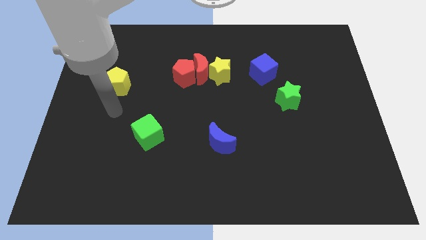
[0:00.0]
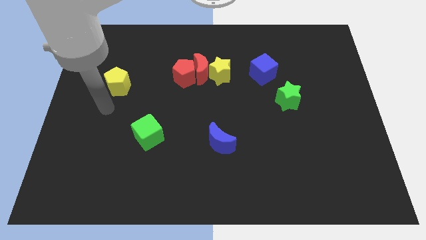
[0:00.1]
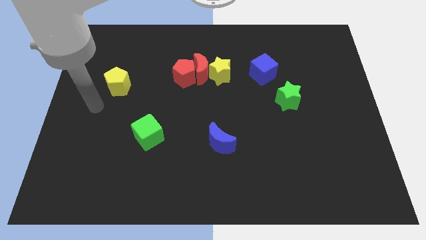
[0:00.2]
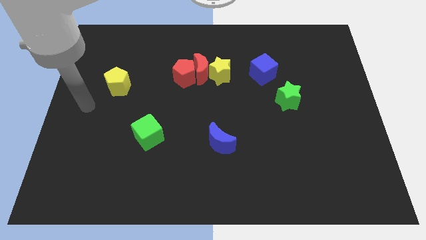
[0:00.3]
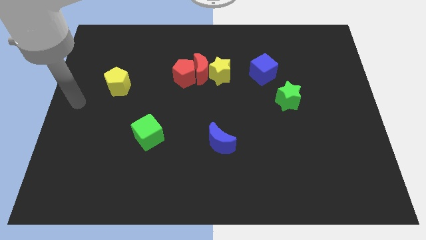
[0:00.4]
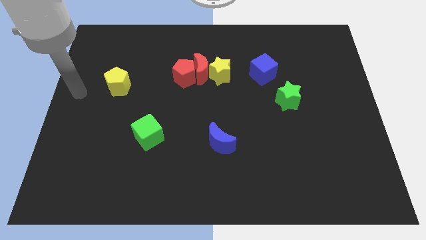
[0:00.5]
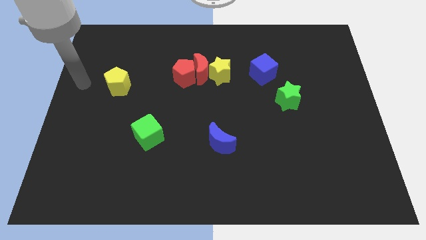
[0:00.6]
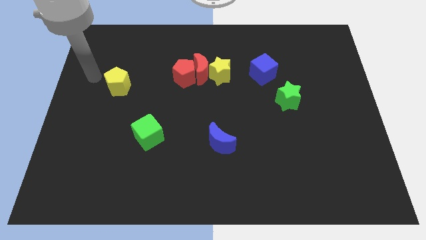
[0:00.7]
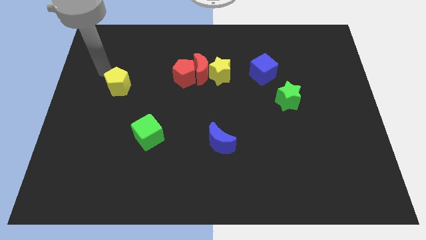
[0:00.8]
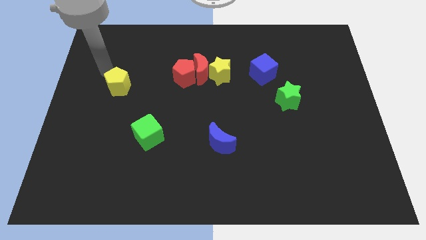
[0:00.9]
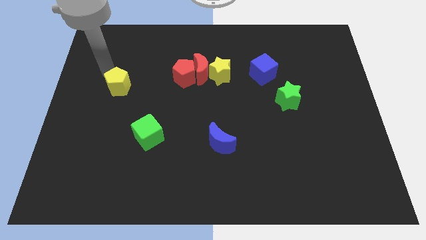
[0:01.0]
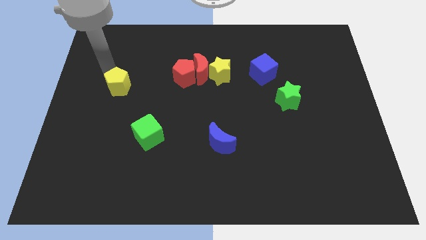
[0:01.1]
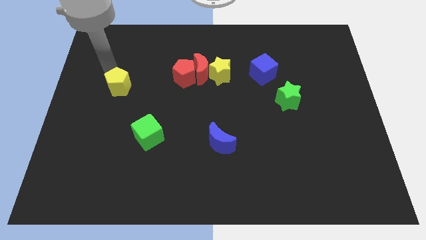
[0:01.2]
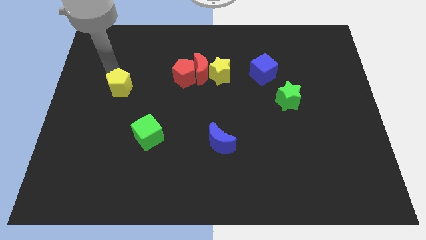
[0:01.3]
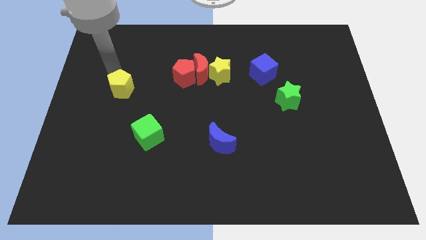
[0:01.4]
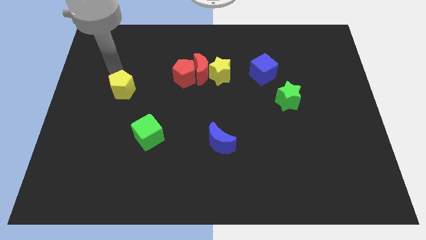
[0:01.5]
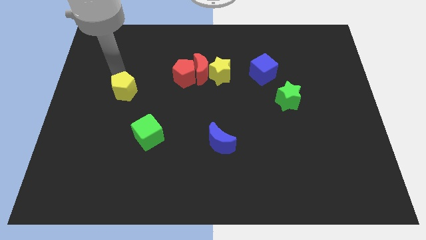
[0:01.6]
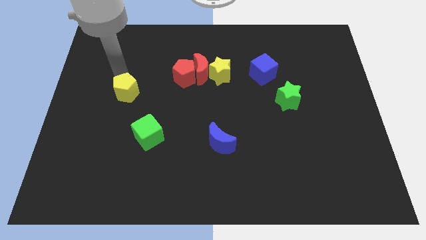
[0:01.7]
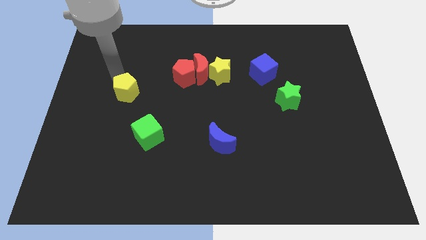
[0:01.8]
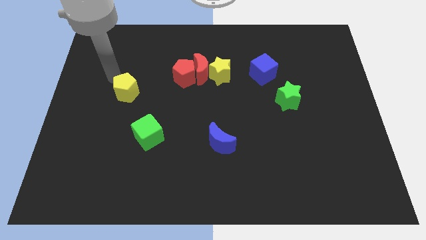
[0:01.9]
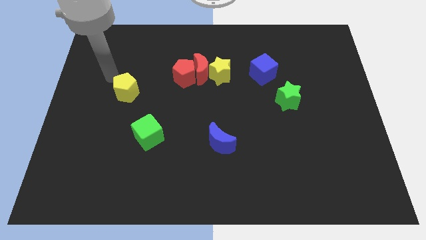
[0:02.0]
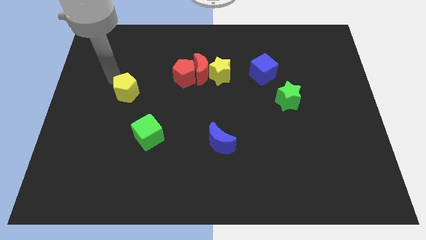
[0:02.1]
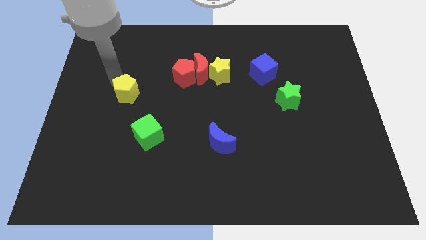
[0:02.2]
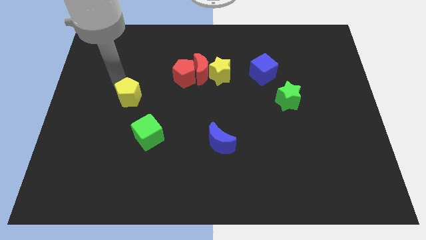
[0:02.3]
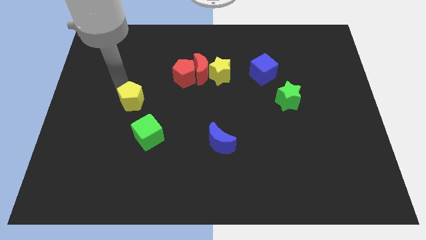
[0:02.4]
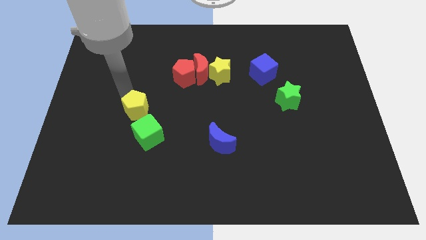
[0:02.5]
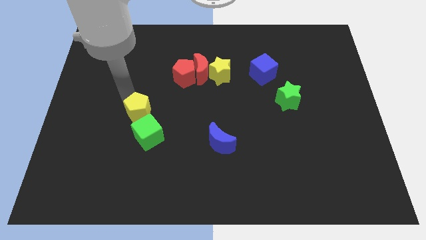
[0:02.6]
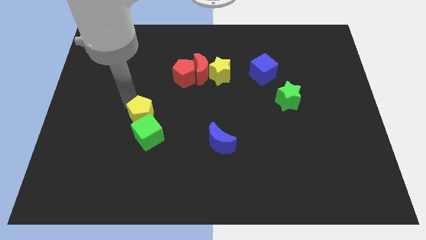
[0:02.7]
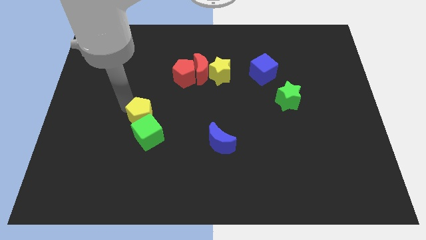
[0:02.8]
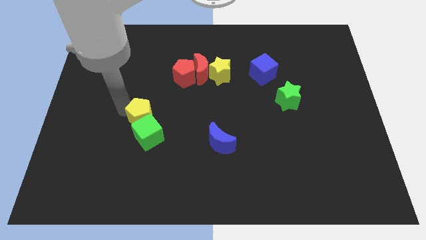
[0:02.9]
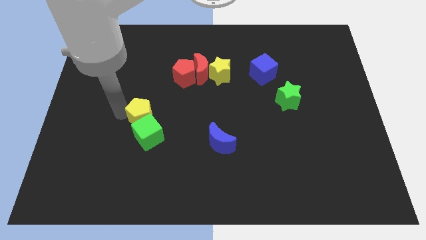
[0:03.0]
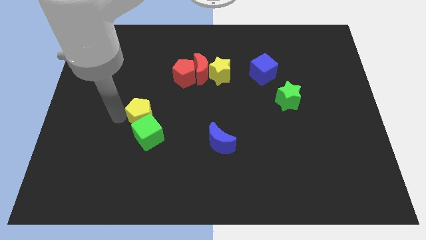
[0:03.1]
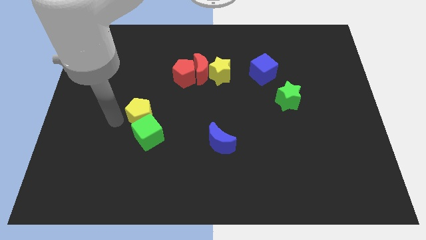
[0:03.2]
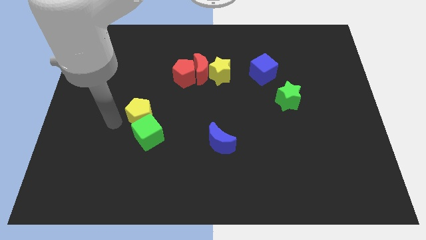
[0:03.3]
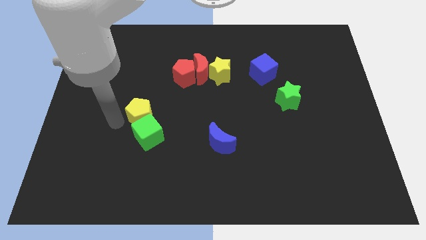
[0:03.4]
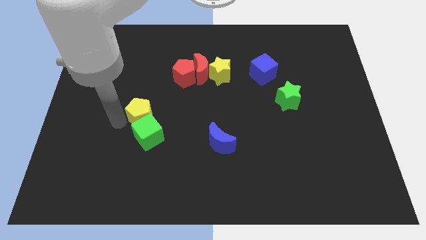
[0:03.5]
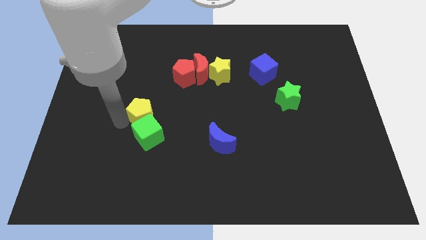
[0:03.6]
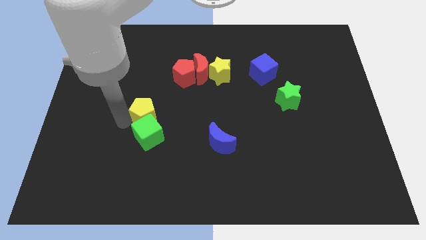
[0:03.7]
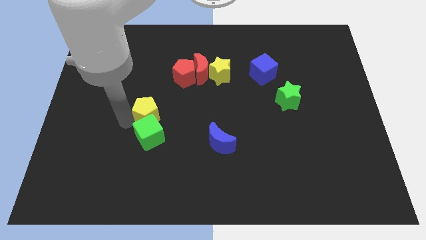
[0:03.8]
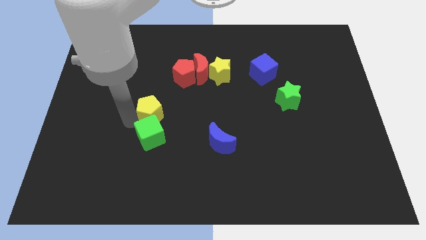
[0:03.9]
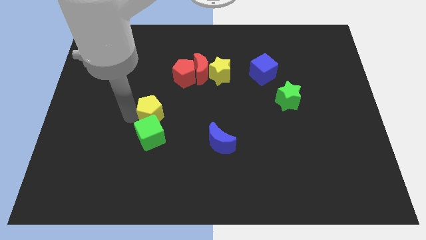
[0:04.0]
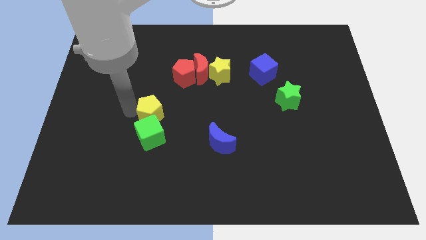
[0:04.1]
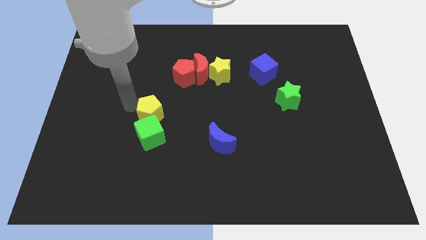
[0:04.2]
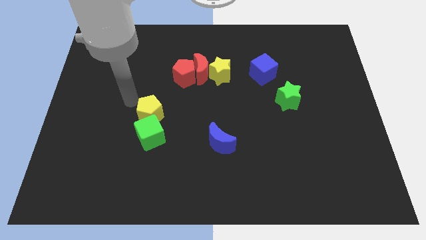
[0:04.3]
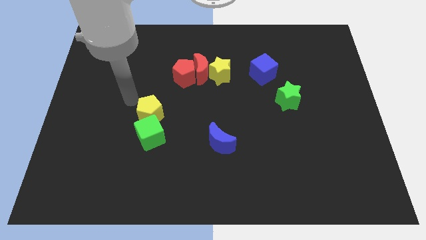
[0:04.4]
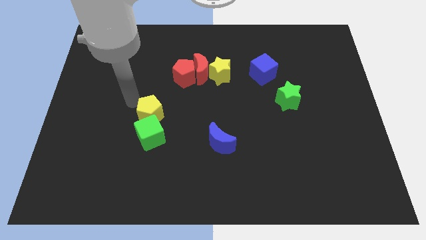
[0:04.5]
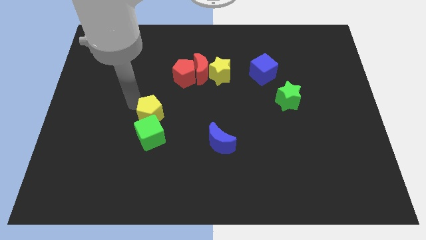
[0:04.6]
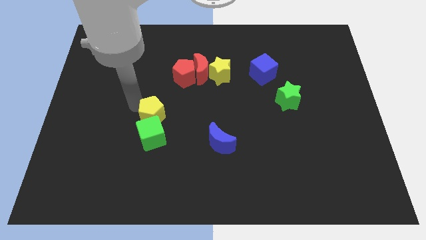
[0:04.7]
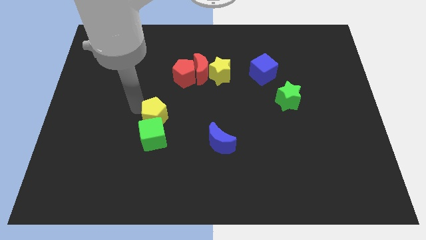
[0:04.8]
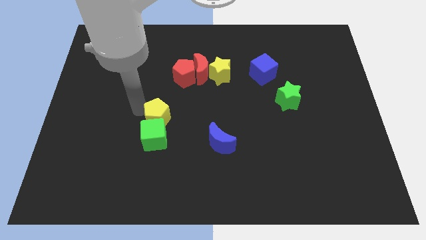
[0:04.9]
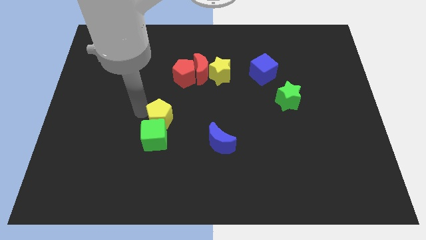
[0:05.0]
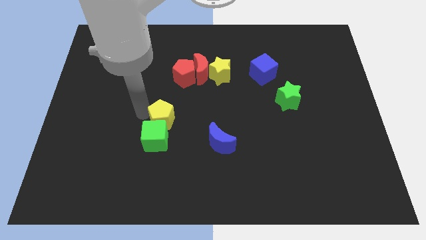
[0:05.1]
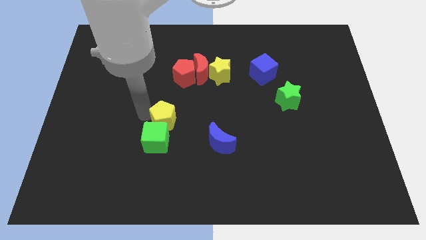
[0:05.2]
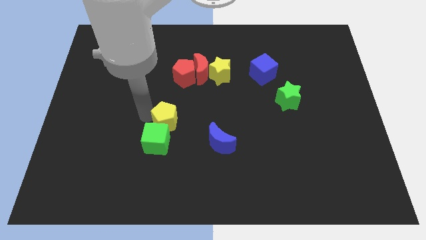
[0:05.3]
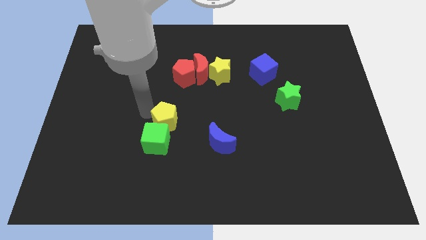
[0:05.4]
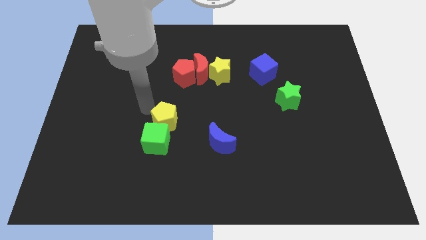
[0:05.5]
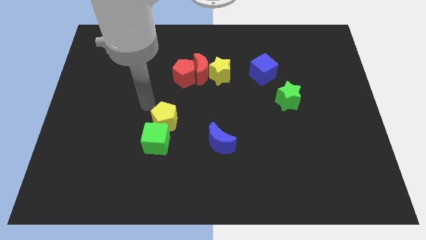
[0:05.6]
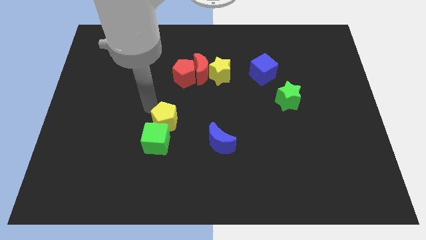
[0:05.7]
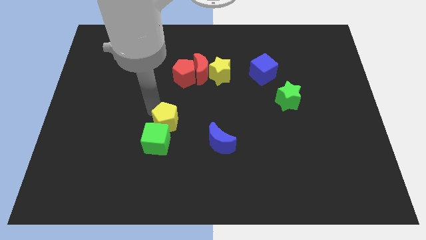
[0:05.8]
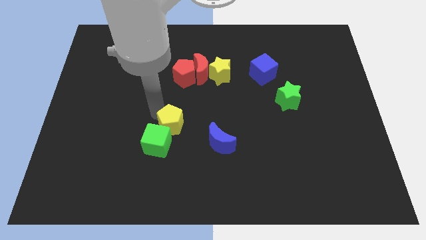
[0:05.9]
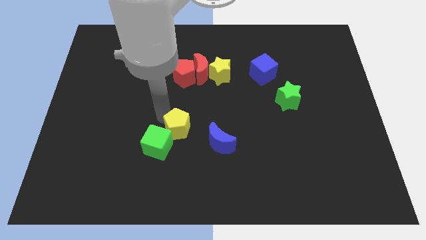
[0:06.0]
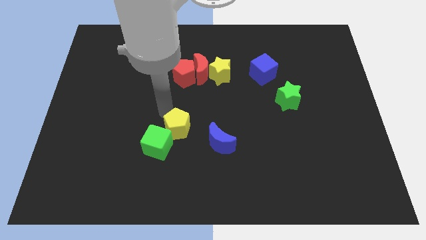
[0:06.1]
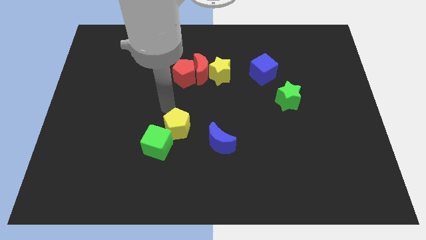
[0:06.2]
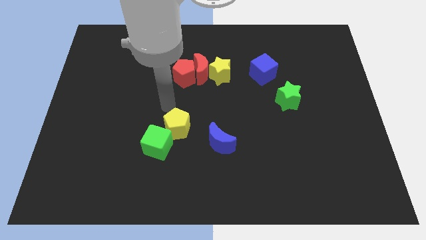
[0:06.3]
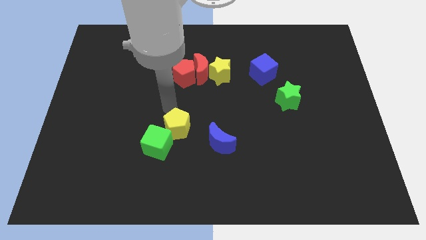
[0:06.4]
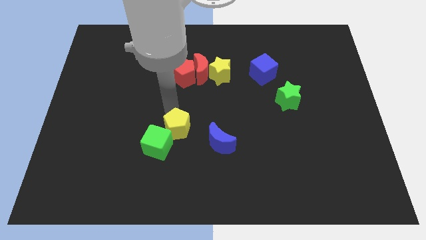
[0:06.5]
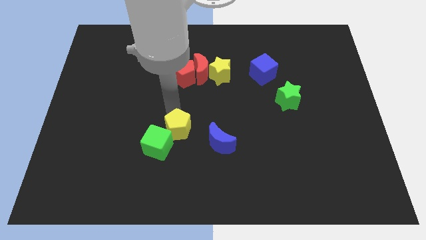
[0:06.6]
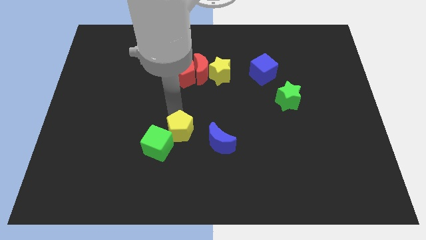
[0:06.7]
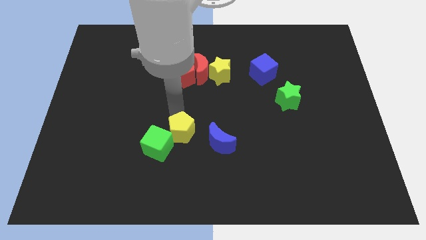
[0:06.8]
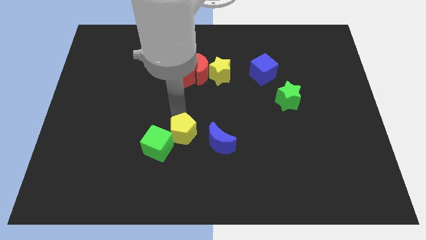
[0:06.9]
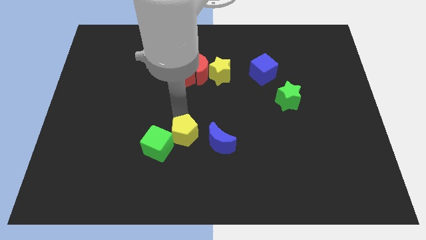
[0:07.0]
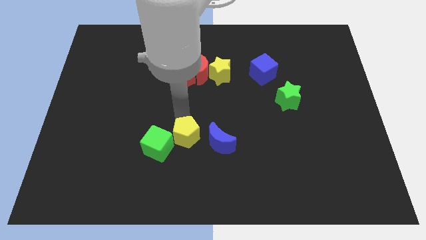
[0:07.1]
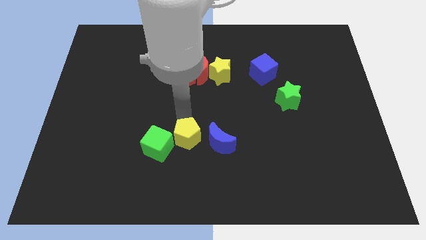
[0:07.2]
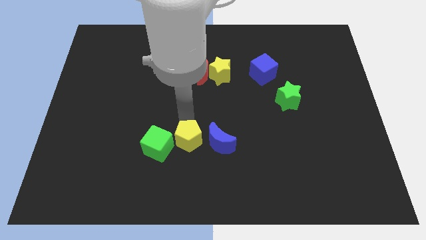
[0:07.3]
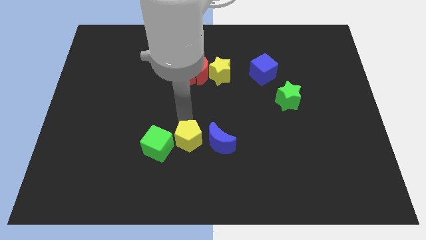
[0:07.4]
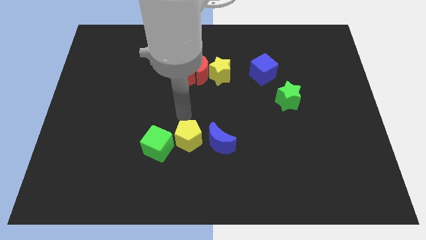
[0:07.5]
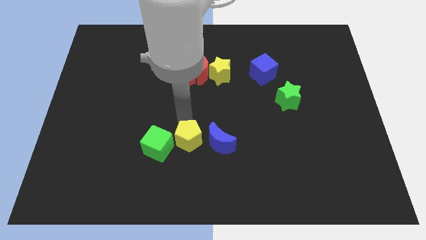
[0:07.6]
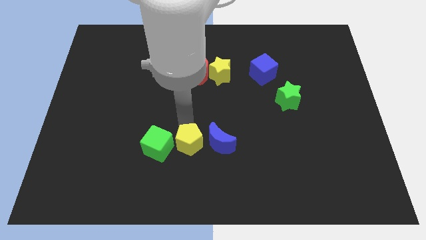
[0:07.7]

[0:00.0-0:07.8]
push the yellow pentagon to the bottom left of the blue moon
